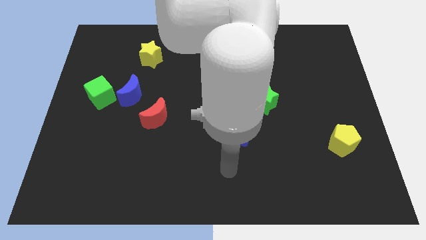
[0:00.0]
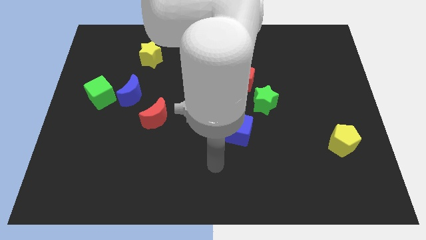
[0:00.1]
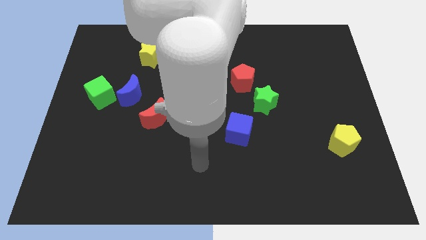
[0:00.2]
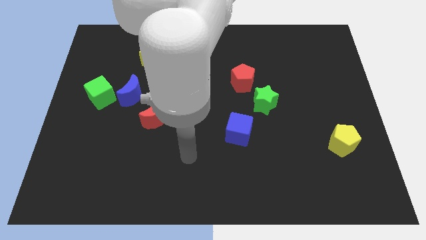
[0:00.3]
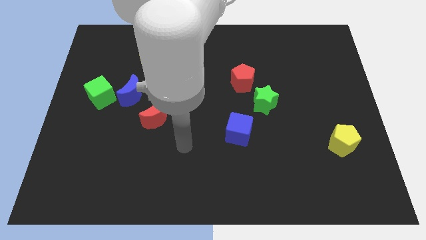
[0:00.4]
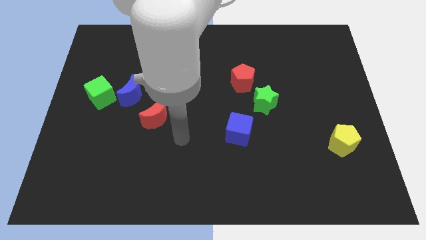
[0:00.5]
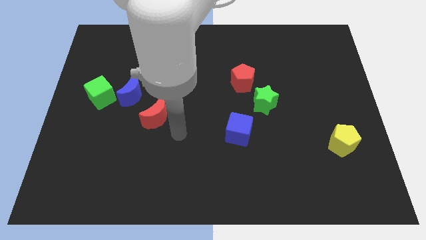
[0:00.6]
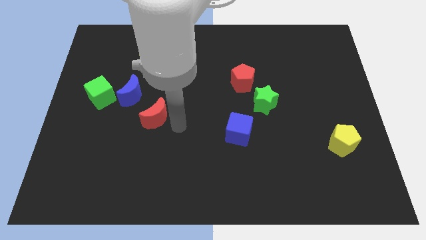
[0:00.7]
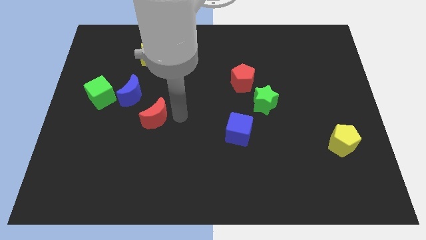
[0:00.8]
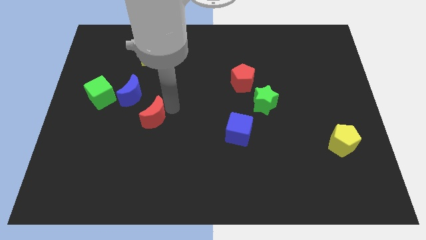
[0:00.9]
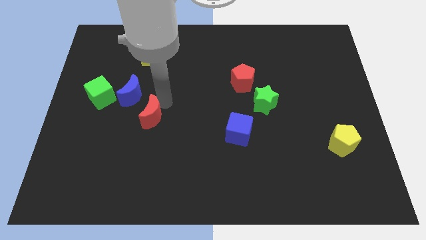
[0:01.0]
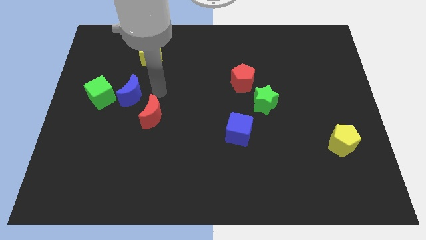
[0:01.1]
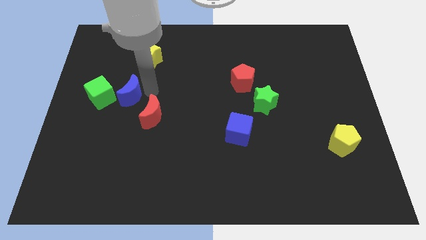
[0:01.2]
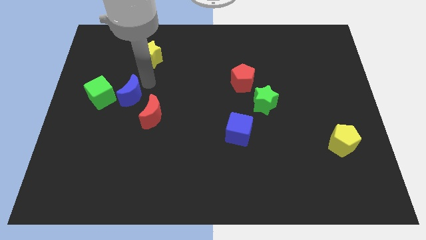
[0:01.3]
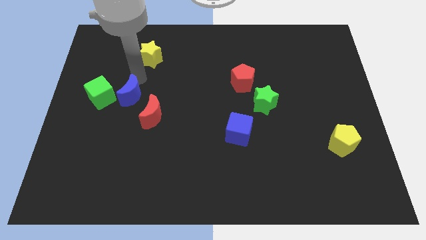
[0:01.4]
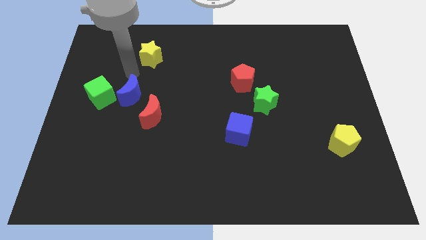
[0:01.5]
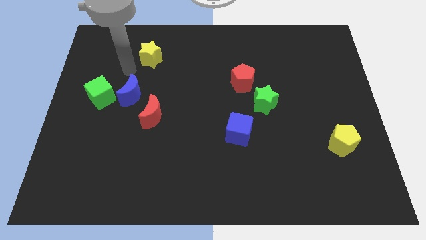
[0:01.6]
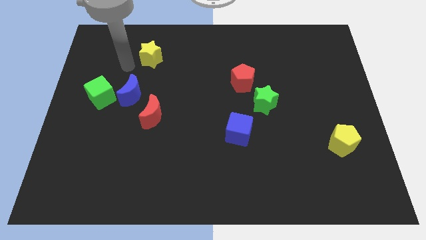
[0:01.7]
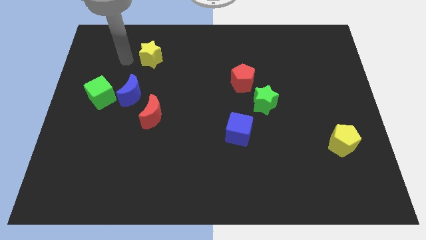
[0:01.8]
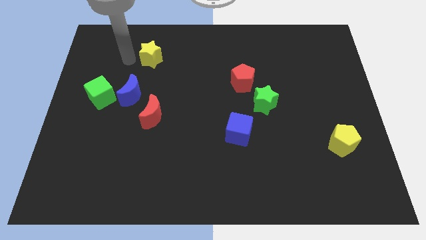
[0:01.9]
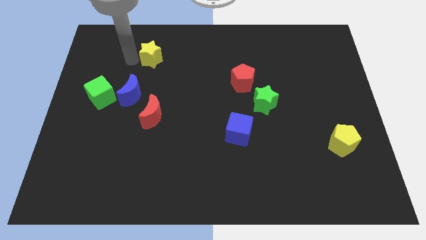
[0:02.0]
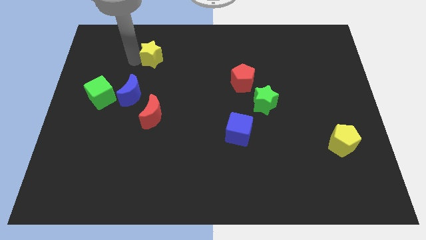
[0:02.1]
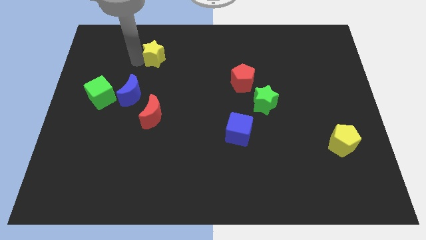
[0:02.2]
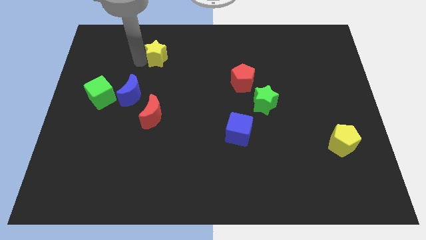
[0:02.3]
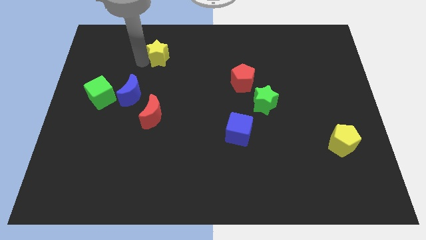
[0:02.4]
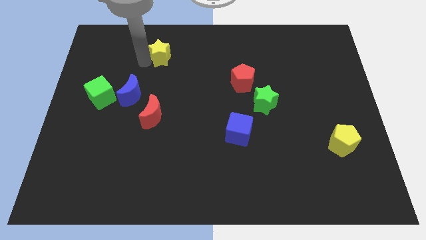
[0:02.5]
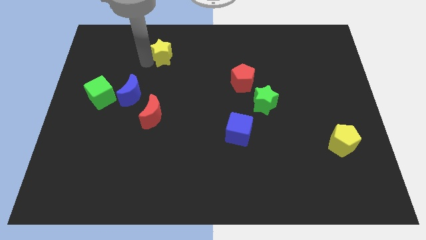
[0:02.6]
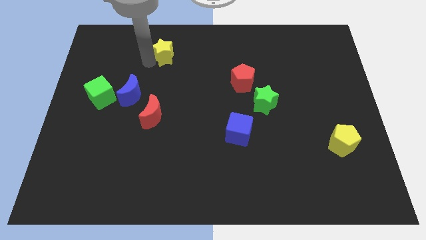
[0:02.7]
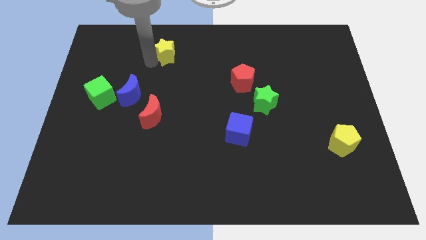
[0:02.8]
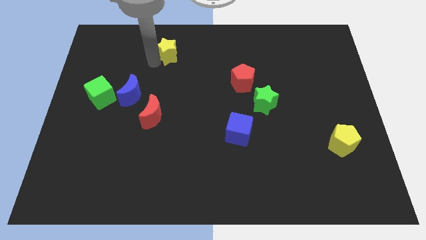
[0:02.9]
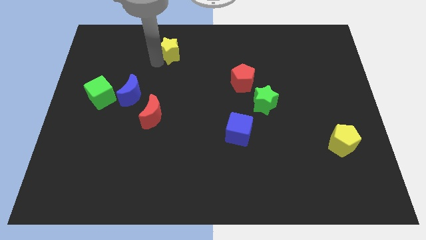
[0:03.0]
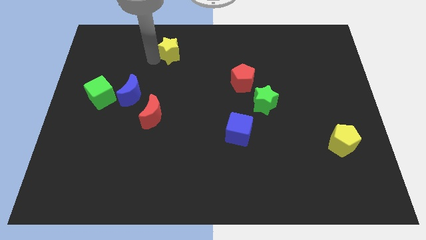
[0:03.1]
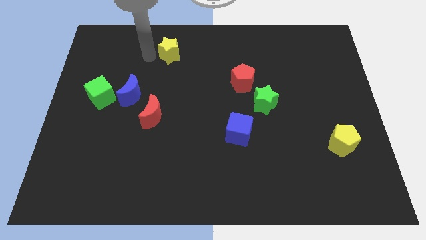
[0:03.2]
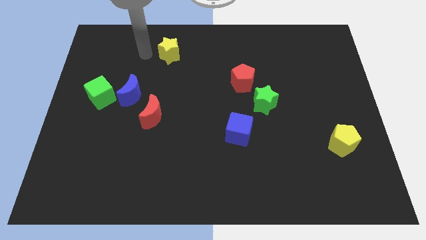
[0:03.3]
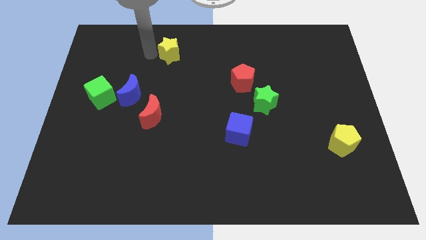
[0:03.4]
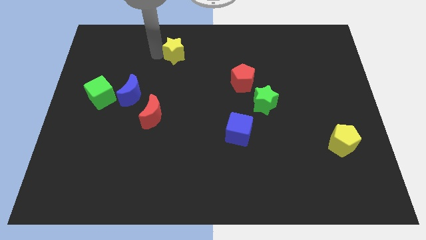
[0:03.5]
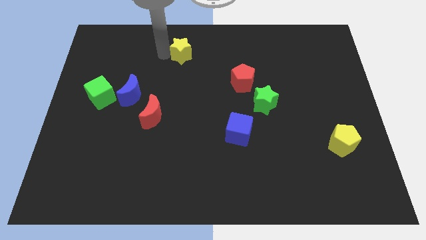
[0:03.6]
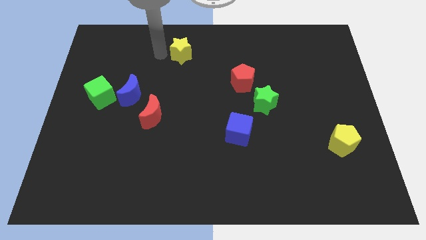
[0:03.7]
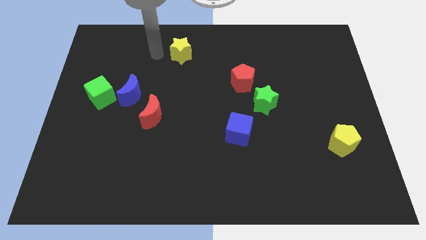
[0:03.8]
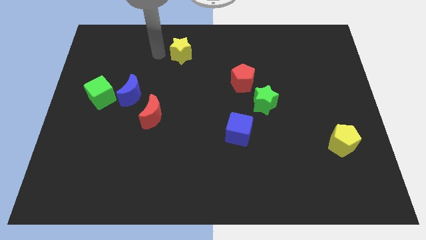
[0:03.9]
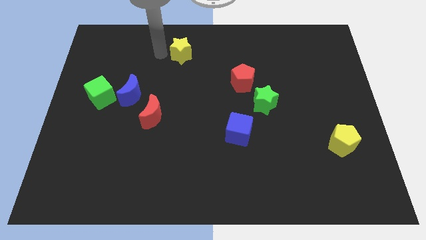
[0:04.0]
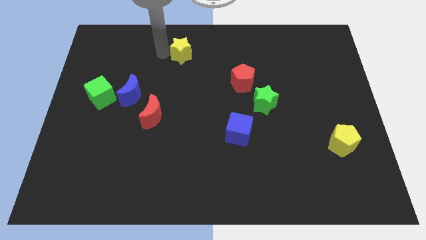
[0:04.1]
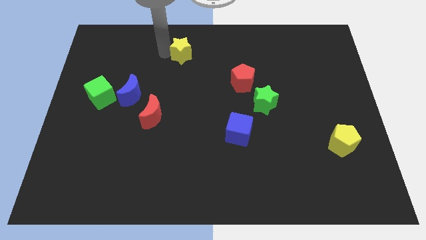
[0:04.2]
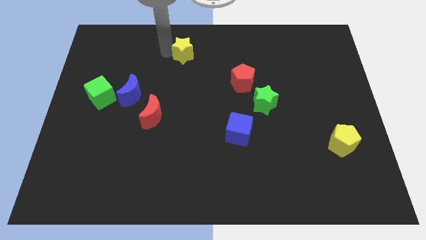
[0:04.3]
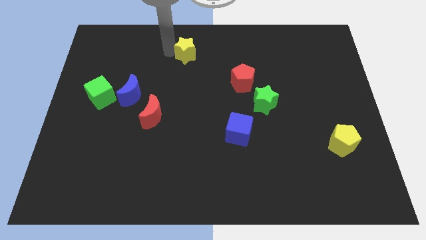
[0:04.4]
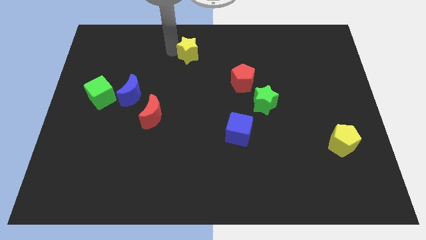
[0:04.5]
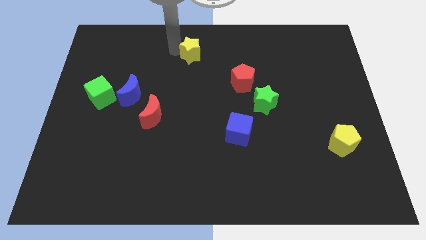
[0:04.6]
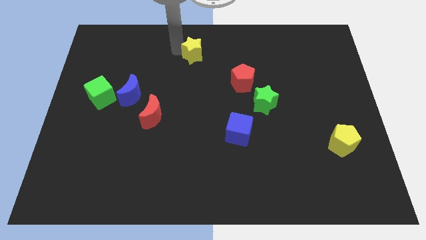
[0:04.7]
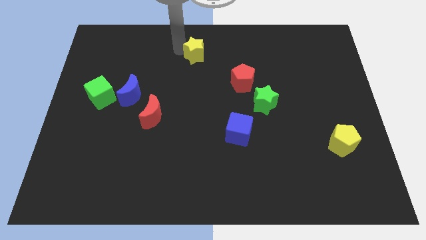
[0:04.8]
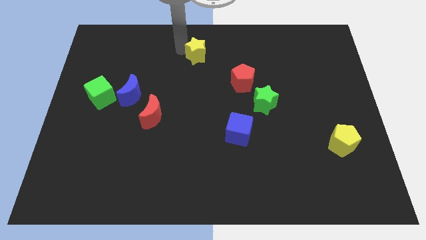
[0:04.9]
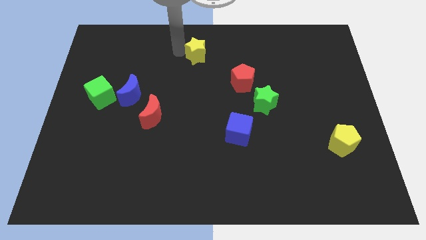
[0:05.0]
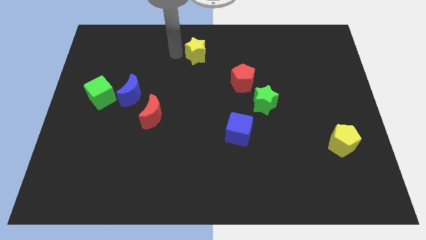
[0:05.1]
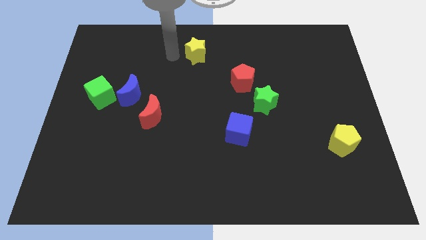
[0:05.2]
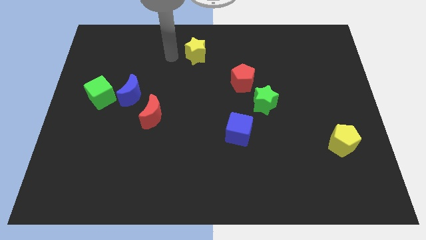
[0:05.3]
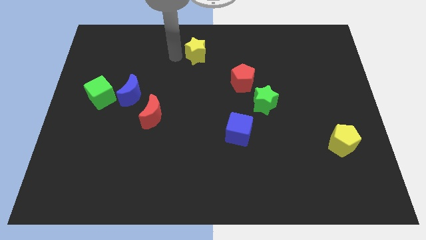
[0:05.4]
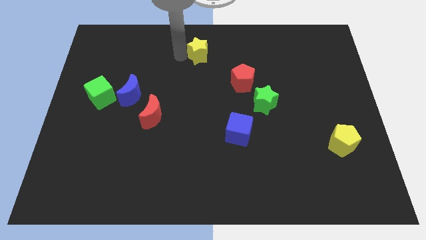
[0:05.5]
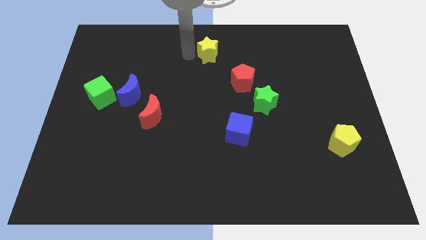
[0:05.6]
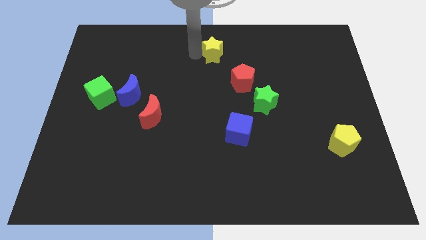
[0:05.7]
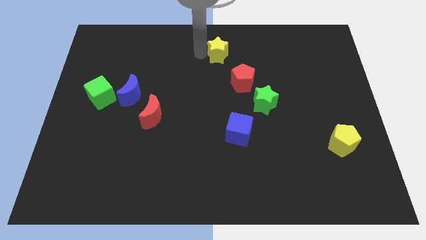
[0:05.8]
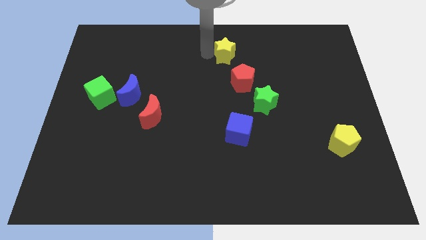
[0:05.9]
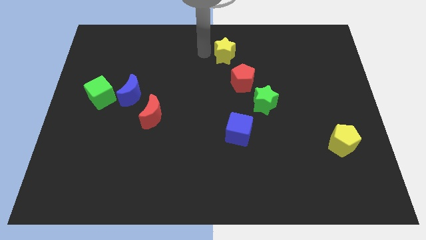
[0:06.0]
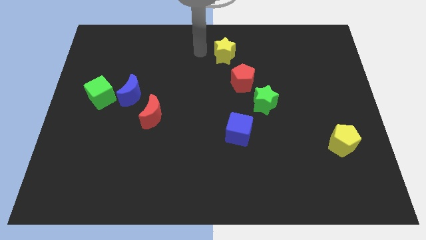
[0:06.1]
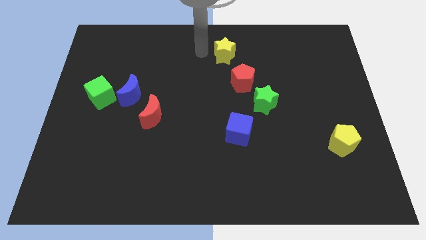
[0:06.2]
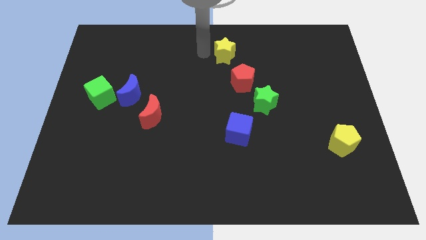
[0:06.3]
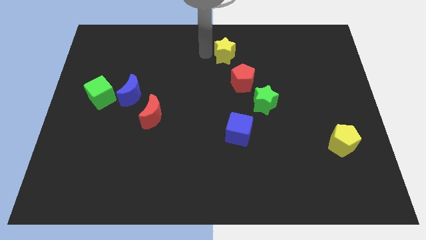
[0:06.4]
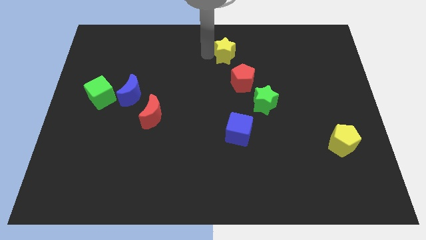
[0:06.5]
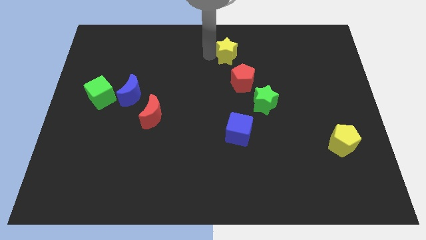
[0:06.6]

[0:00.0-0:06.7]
push the yellow star to the right

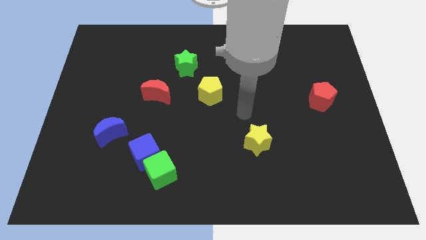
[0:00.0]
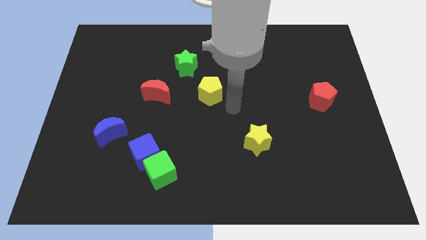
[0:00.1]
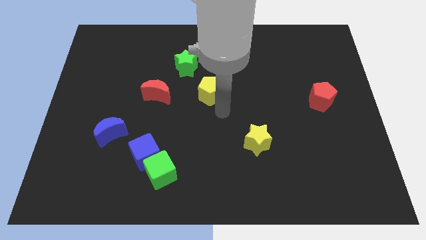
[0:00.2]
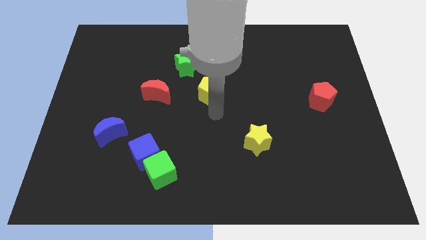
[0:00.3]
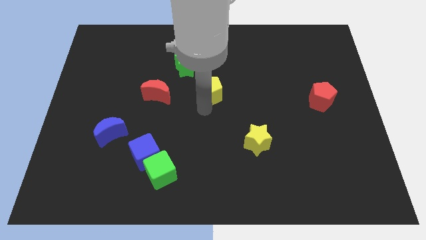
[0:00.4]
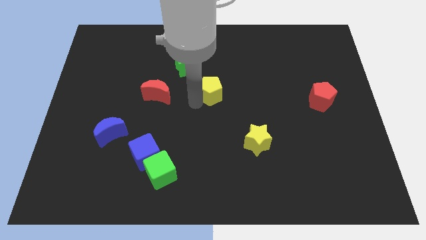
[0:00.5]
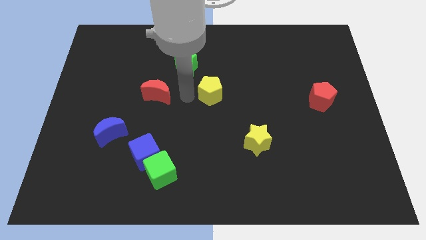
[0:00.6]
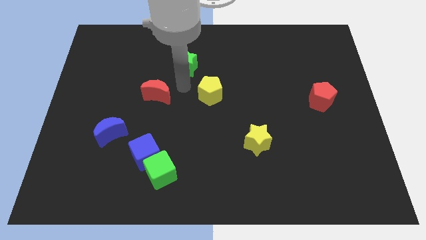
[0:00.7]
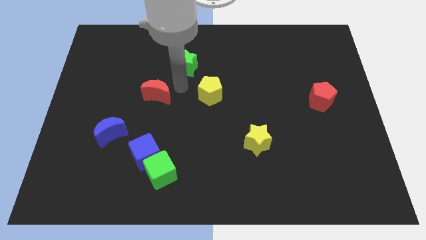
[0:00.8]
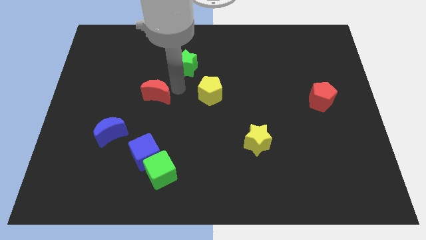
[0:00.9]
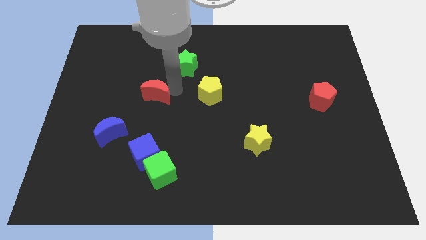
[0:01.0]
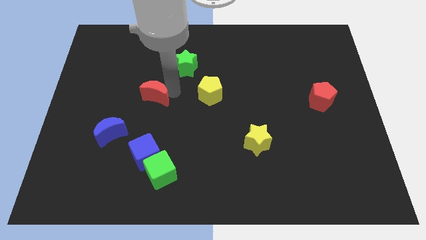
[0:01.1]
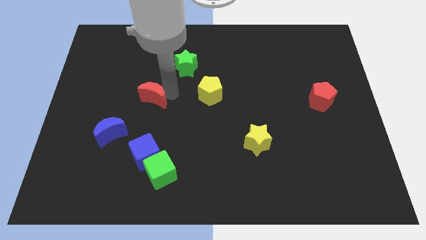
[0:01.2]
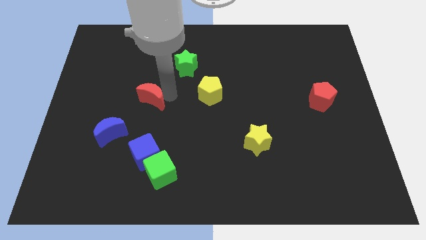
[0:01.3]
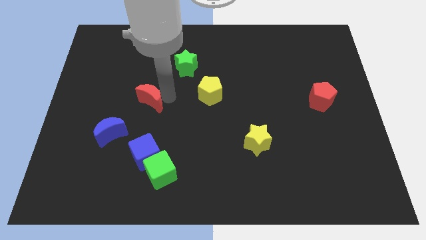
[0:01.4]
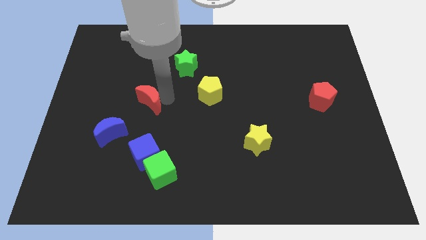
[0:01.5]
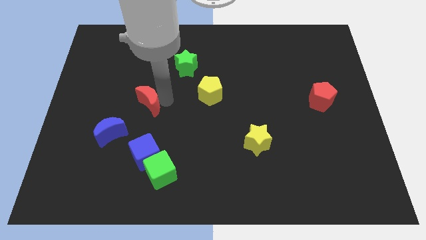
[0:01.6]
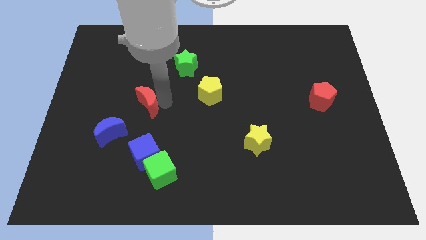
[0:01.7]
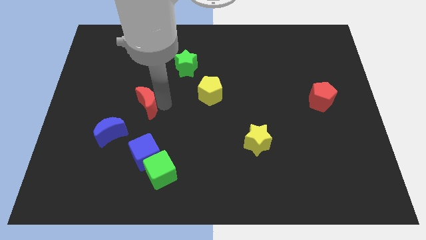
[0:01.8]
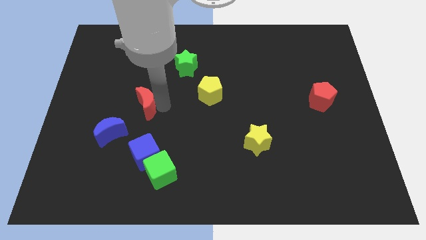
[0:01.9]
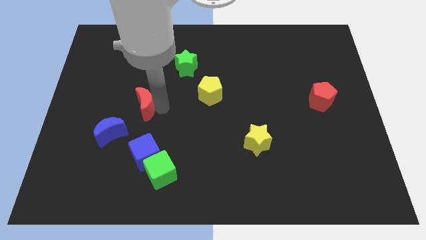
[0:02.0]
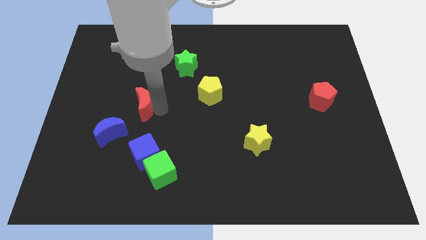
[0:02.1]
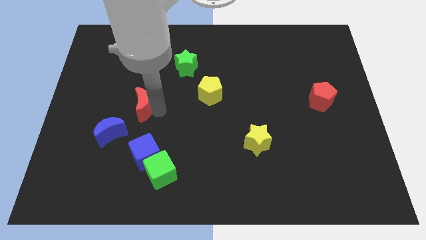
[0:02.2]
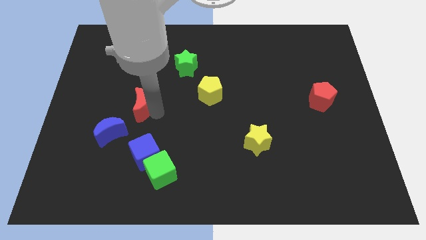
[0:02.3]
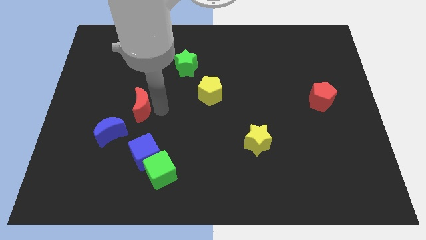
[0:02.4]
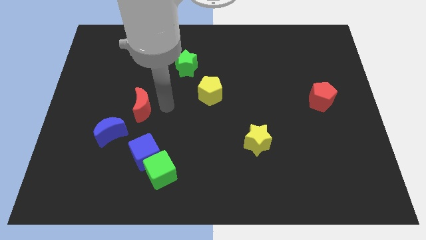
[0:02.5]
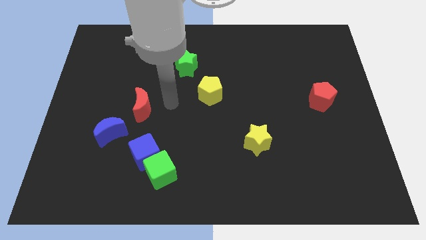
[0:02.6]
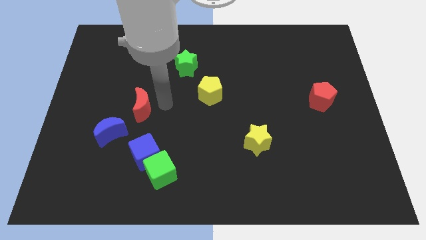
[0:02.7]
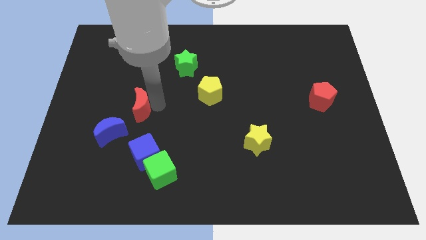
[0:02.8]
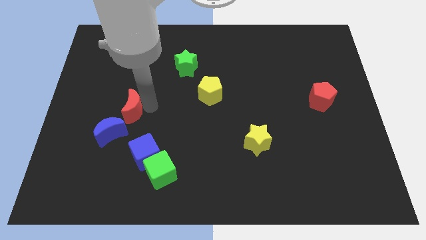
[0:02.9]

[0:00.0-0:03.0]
slightly push the red moon down and then to the left
